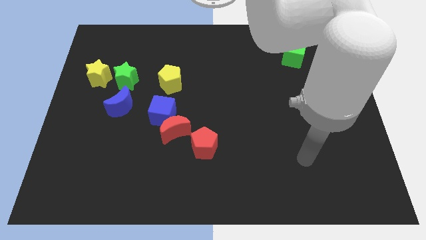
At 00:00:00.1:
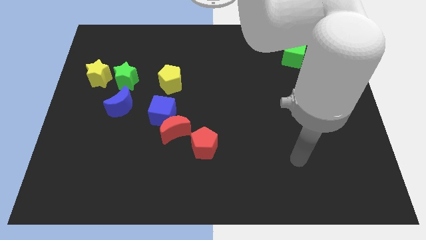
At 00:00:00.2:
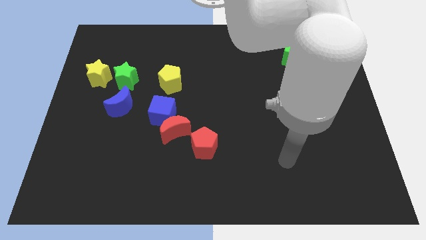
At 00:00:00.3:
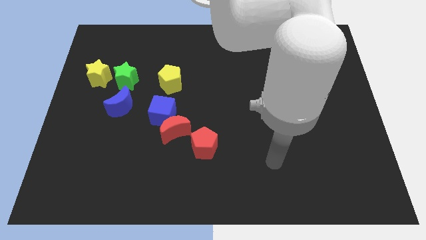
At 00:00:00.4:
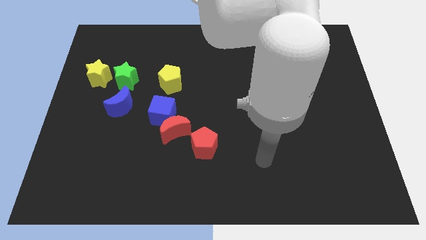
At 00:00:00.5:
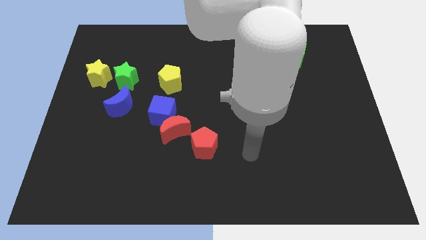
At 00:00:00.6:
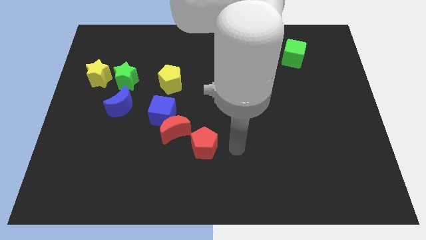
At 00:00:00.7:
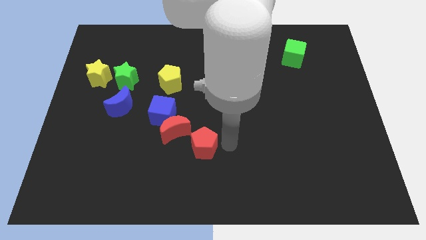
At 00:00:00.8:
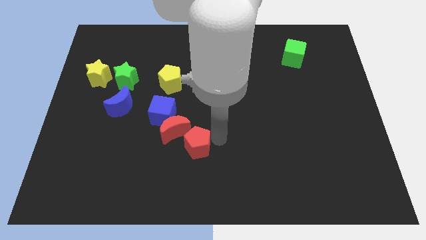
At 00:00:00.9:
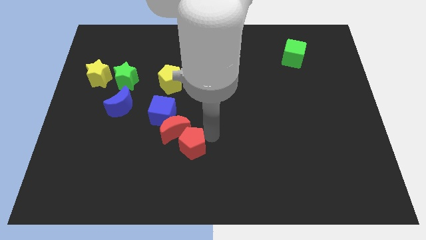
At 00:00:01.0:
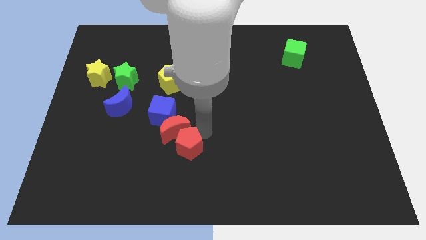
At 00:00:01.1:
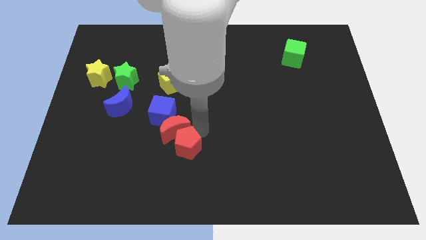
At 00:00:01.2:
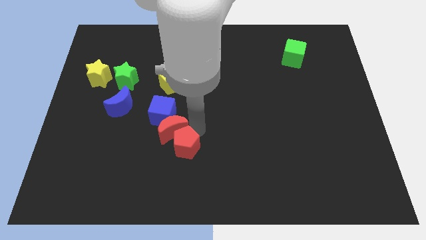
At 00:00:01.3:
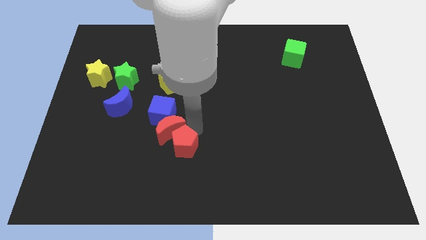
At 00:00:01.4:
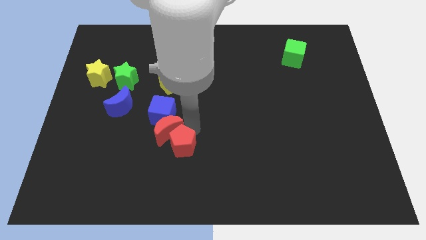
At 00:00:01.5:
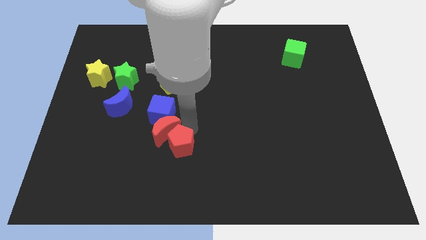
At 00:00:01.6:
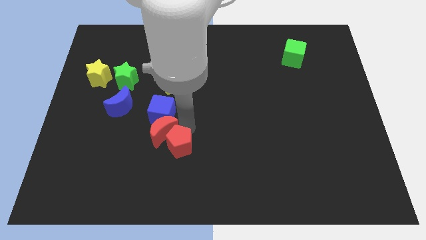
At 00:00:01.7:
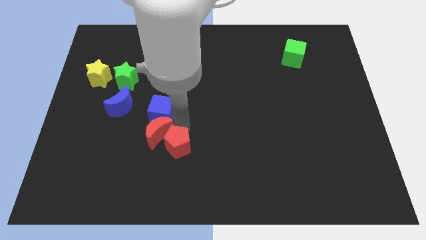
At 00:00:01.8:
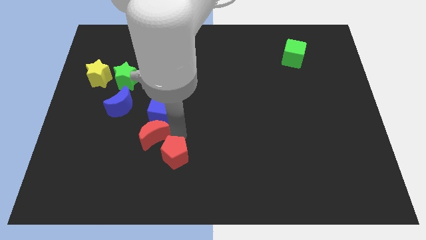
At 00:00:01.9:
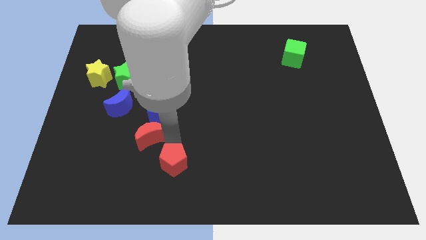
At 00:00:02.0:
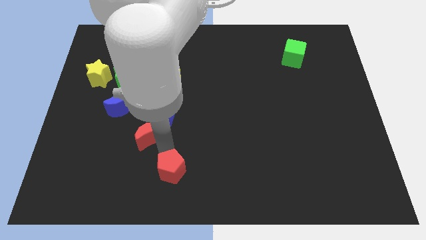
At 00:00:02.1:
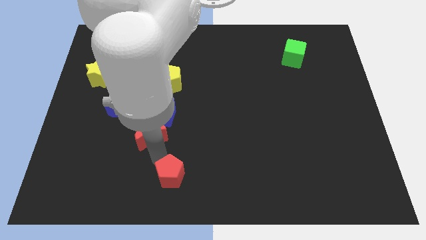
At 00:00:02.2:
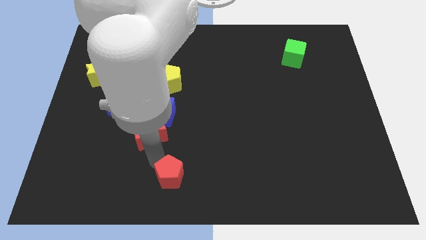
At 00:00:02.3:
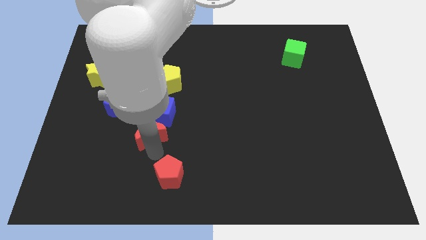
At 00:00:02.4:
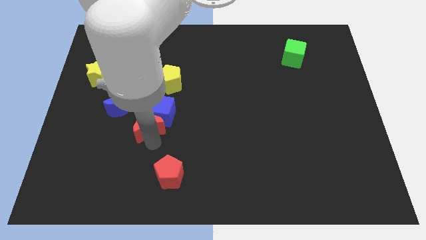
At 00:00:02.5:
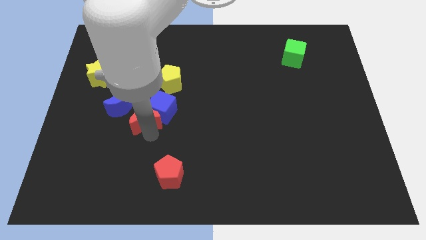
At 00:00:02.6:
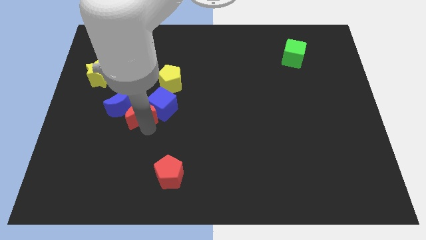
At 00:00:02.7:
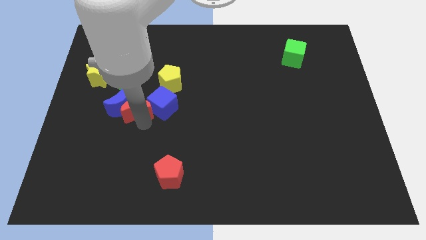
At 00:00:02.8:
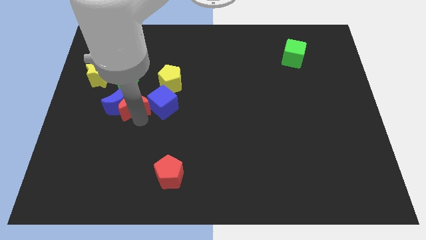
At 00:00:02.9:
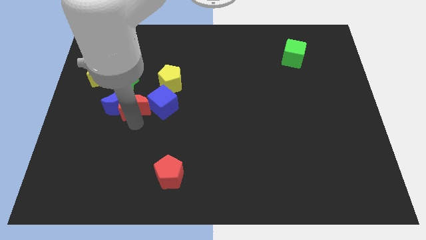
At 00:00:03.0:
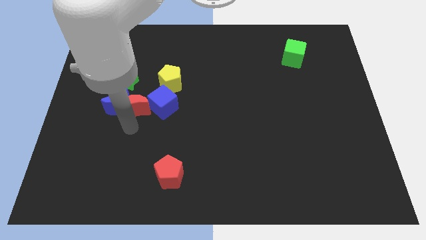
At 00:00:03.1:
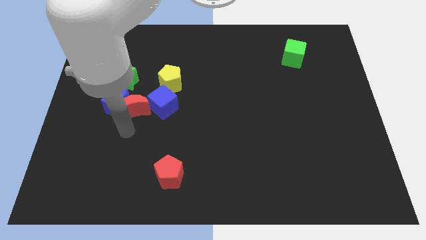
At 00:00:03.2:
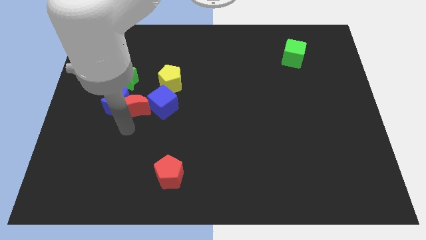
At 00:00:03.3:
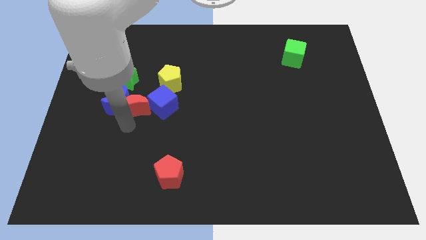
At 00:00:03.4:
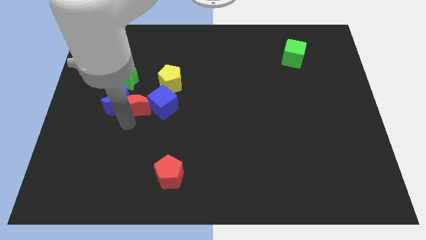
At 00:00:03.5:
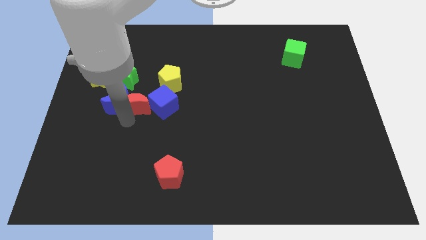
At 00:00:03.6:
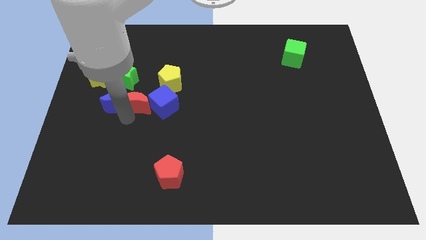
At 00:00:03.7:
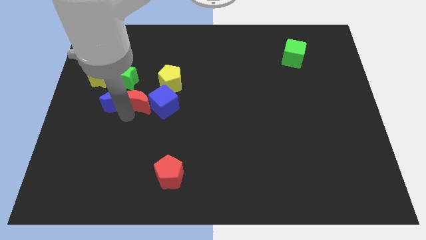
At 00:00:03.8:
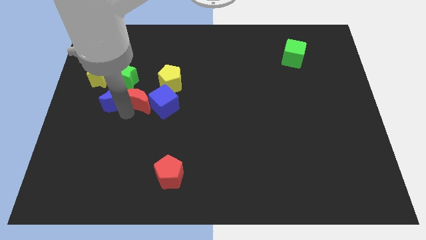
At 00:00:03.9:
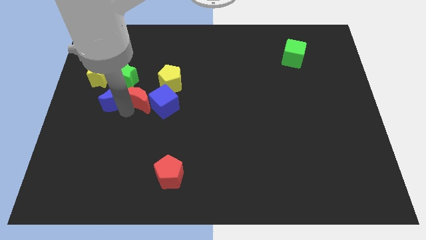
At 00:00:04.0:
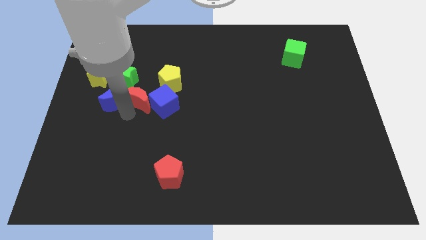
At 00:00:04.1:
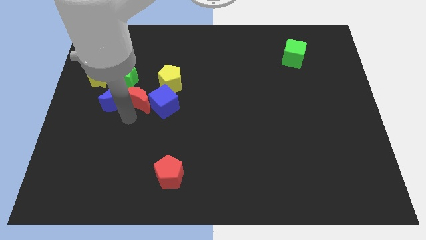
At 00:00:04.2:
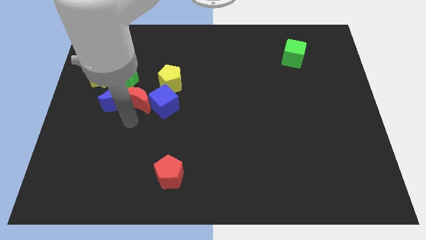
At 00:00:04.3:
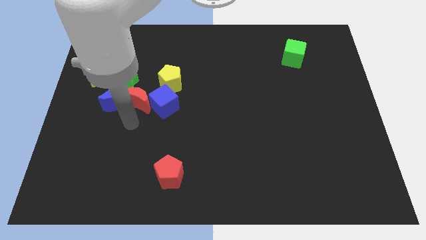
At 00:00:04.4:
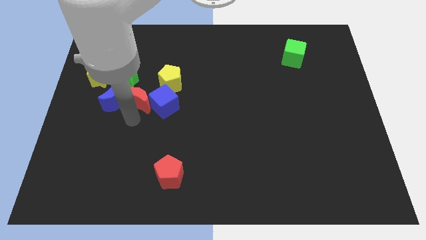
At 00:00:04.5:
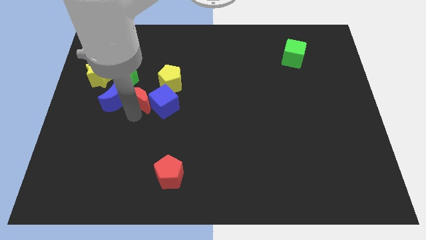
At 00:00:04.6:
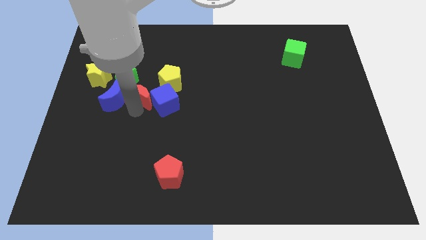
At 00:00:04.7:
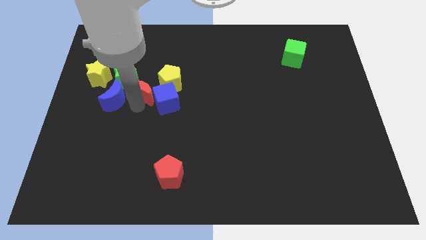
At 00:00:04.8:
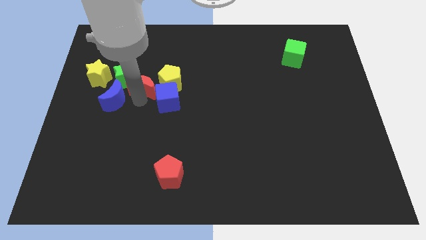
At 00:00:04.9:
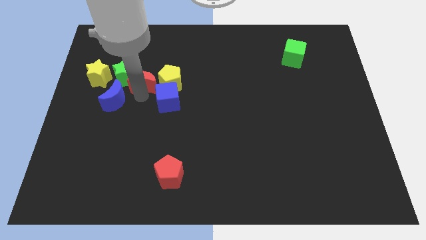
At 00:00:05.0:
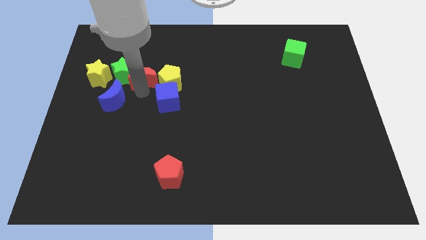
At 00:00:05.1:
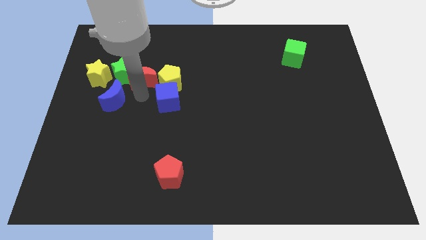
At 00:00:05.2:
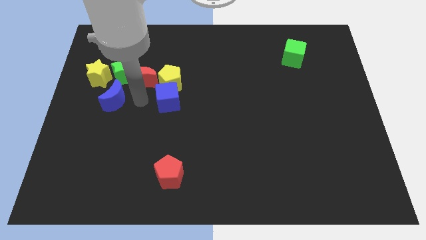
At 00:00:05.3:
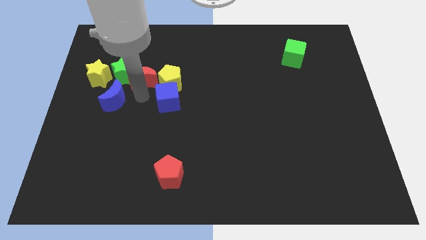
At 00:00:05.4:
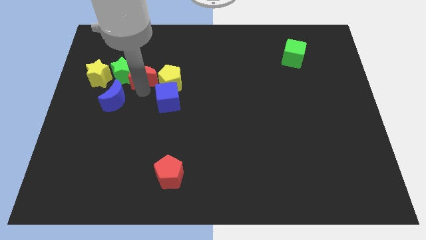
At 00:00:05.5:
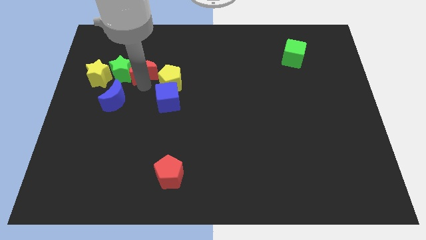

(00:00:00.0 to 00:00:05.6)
slide the red moon to the top right of the green star
